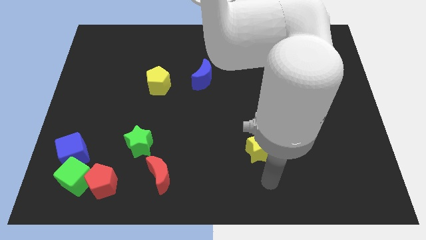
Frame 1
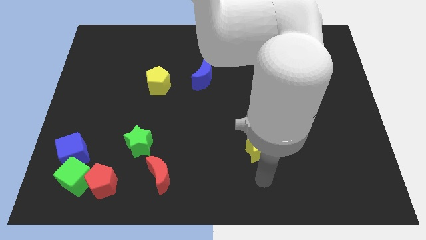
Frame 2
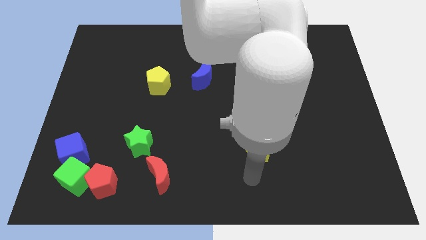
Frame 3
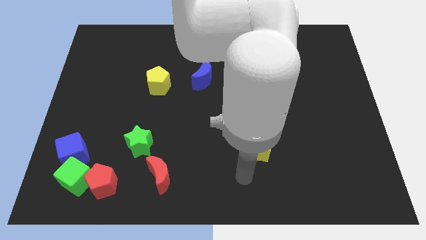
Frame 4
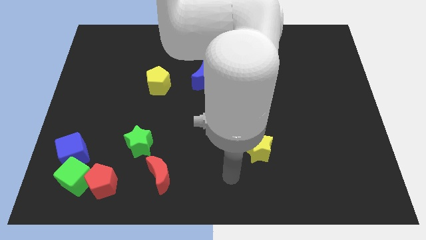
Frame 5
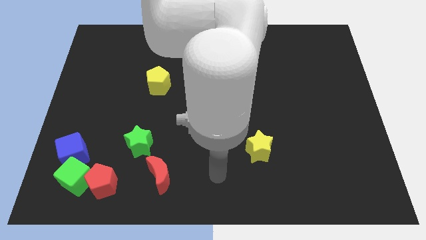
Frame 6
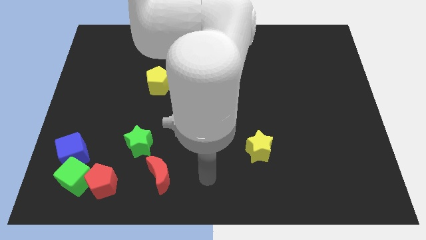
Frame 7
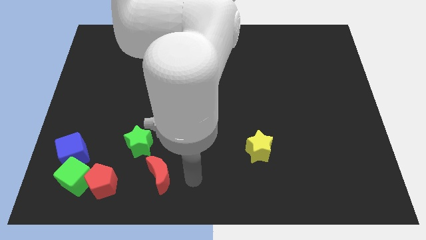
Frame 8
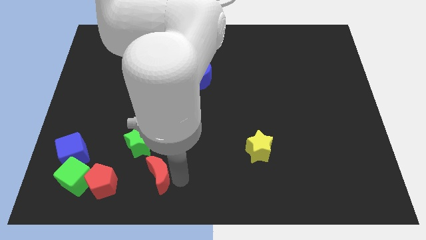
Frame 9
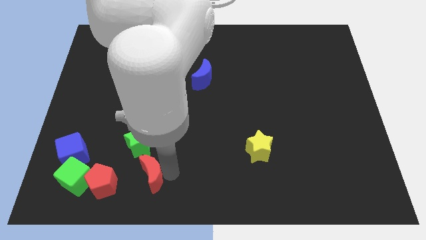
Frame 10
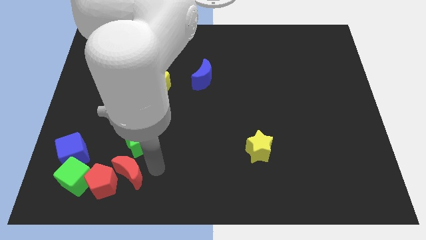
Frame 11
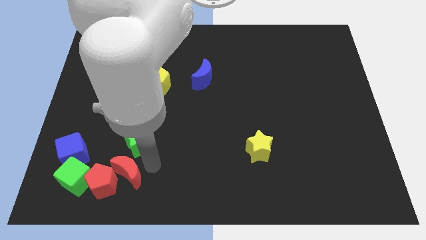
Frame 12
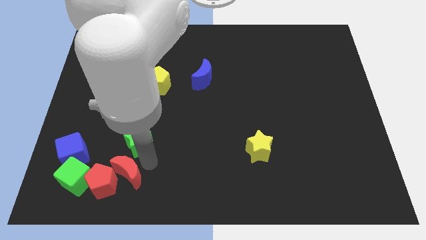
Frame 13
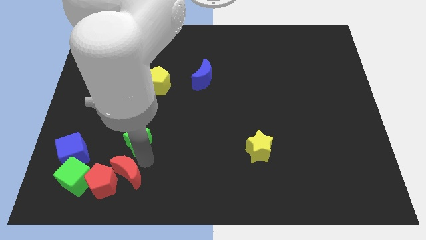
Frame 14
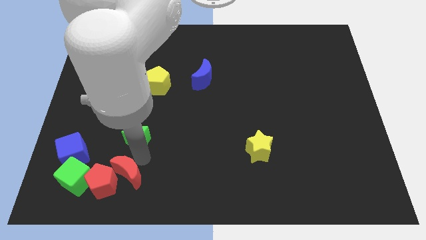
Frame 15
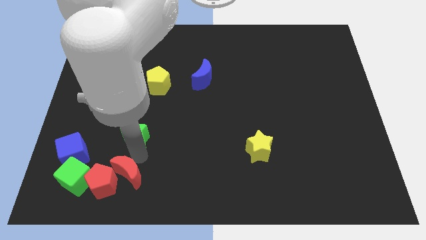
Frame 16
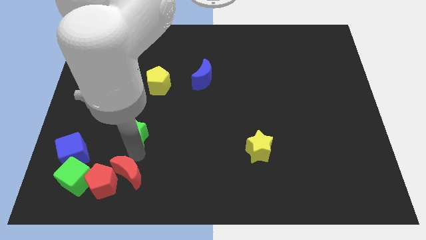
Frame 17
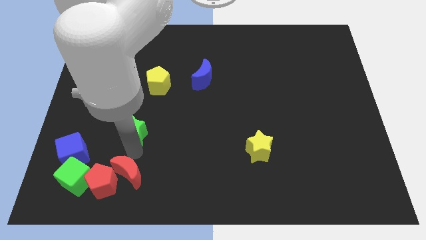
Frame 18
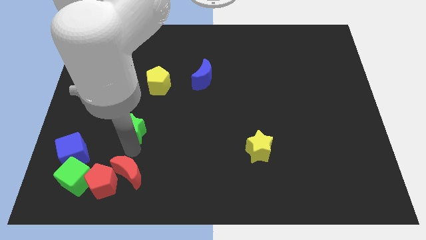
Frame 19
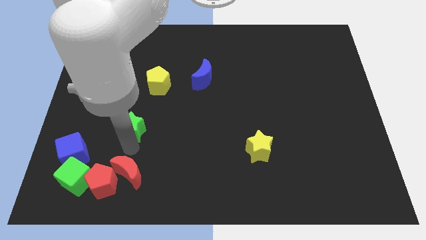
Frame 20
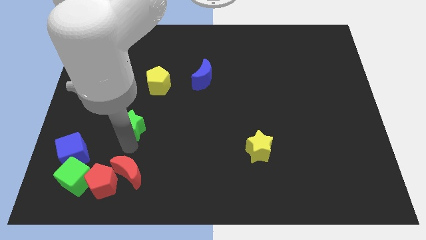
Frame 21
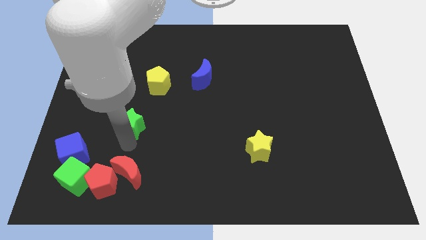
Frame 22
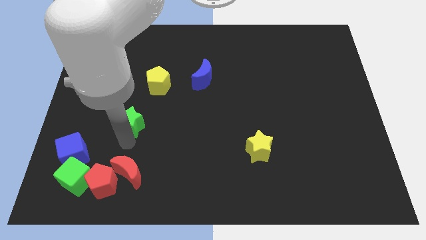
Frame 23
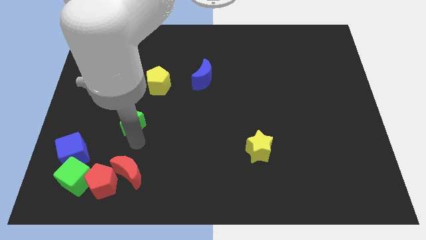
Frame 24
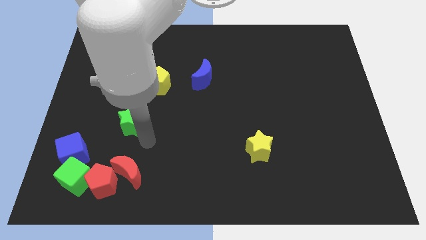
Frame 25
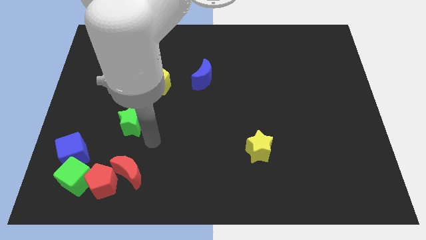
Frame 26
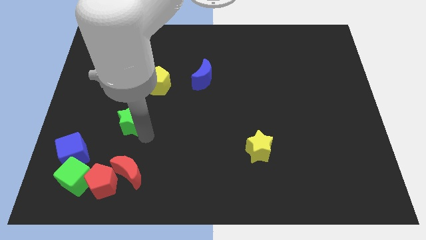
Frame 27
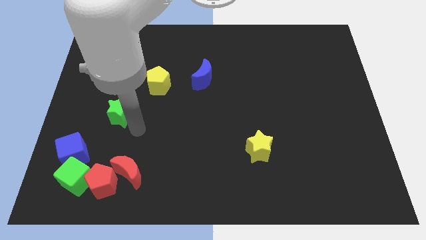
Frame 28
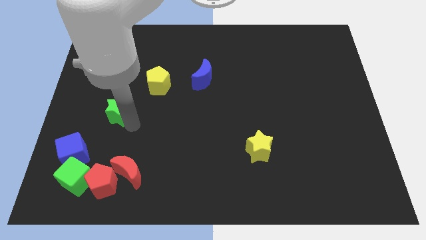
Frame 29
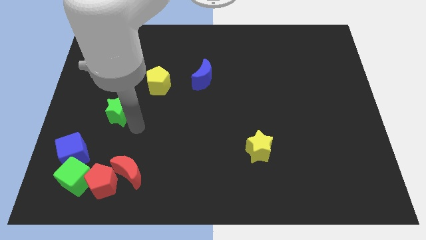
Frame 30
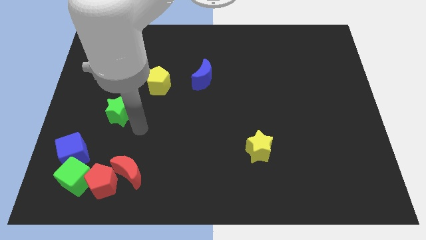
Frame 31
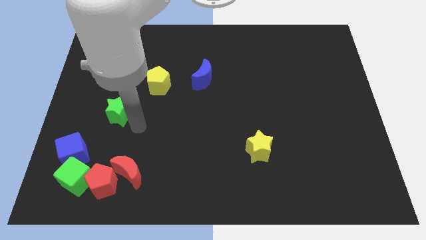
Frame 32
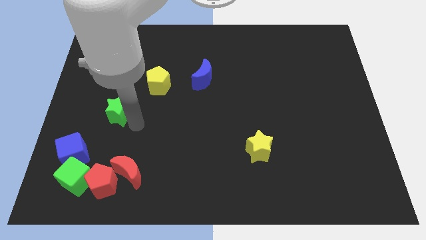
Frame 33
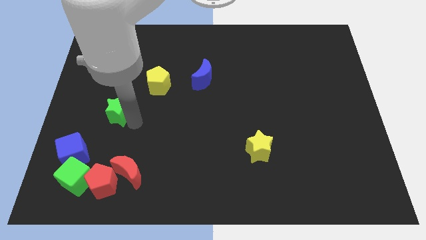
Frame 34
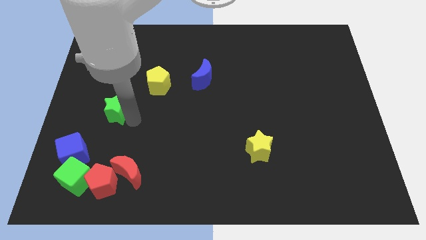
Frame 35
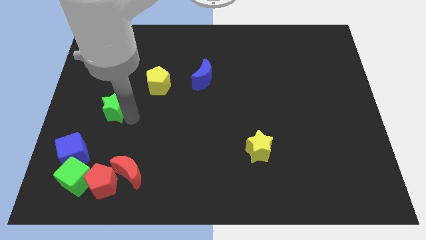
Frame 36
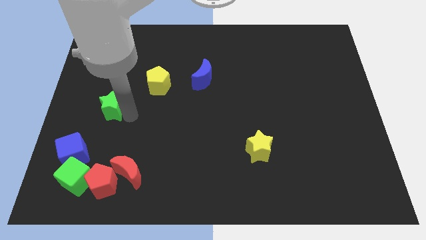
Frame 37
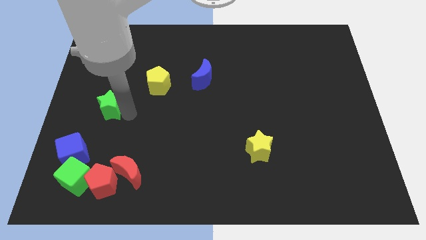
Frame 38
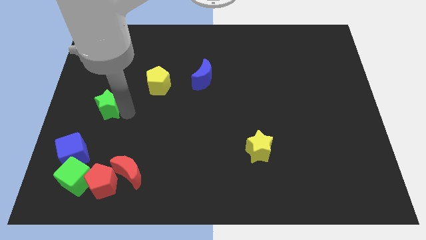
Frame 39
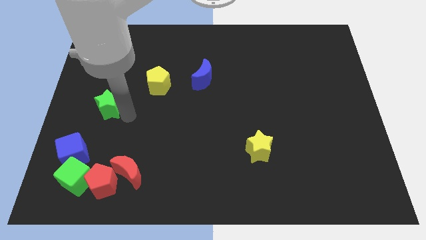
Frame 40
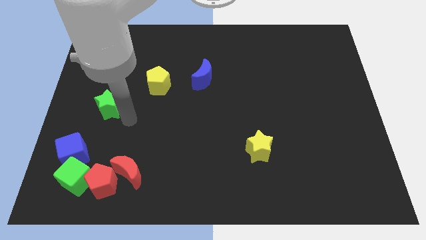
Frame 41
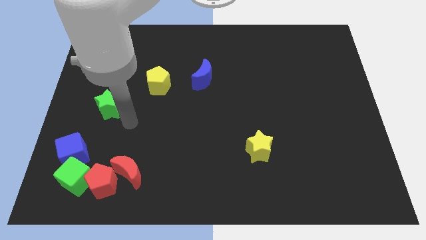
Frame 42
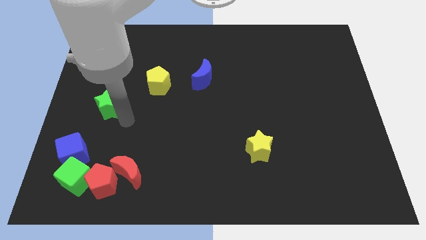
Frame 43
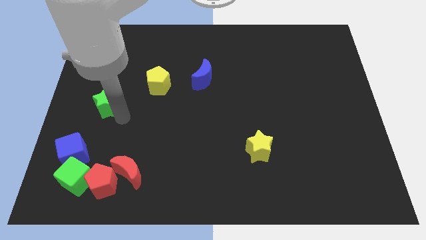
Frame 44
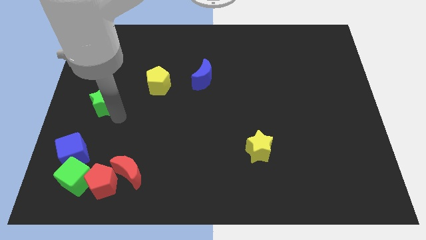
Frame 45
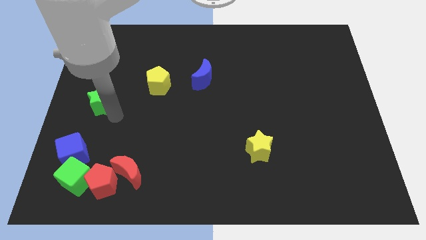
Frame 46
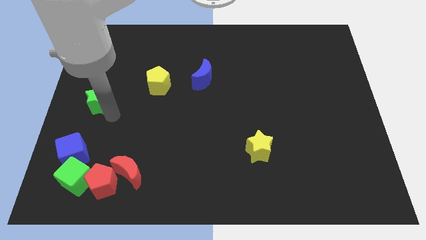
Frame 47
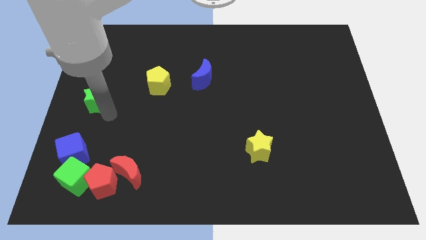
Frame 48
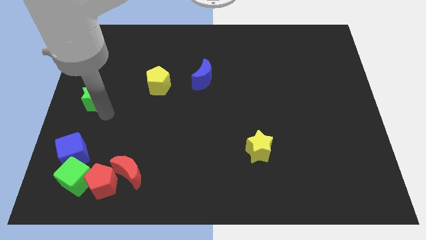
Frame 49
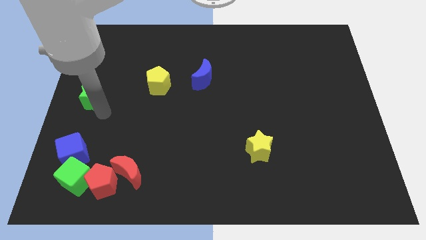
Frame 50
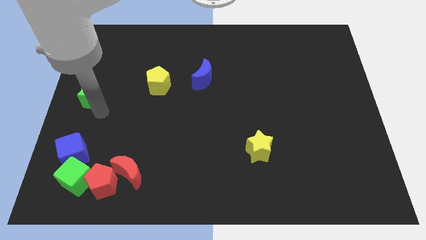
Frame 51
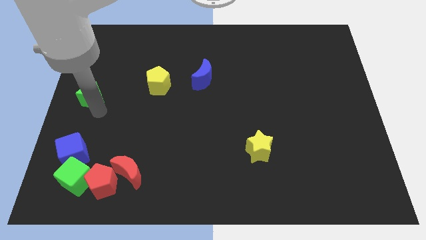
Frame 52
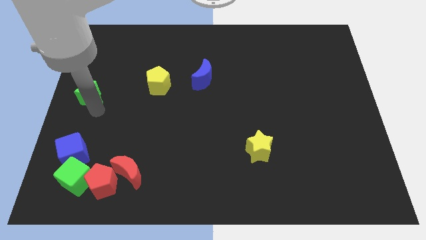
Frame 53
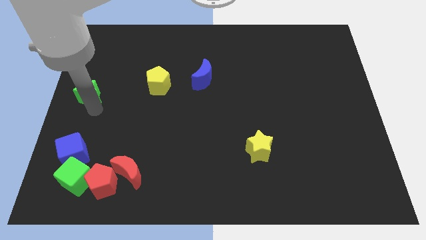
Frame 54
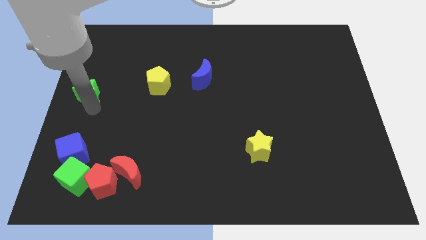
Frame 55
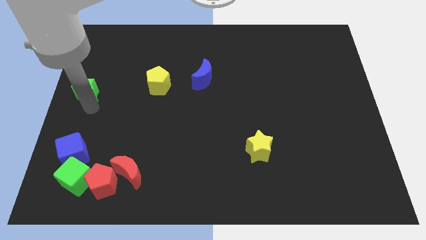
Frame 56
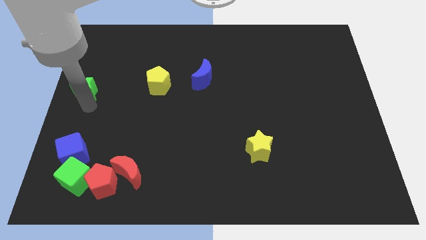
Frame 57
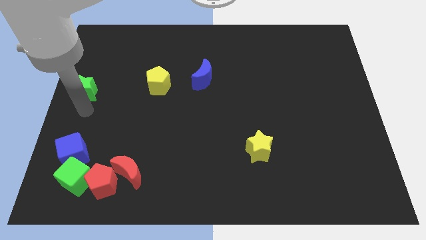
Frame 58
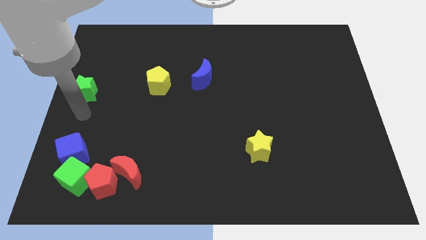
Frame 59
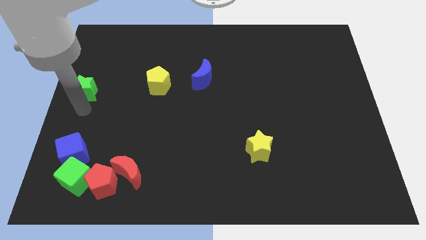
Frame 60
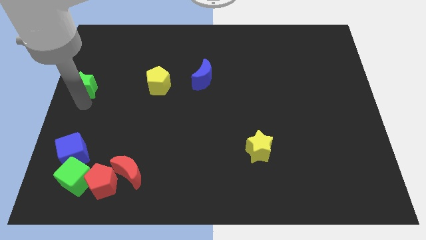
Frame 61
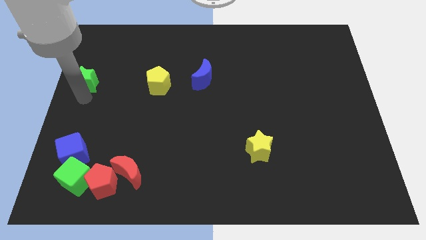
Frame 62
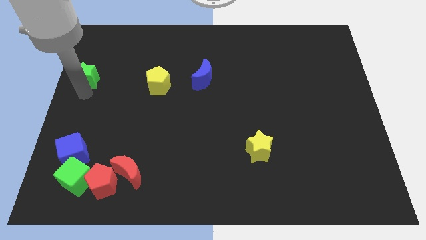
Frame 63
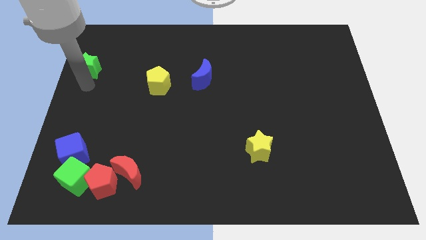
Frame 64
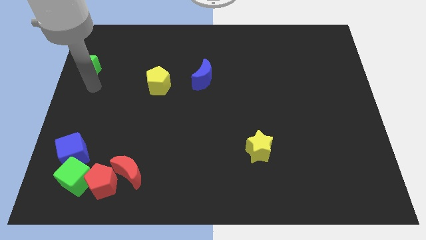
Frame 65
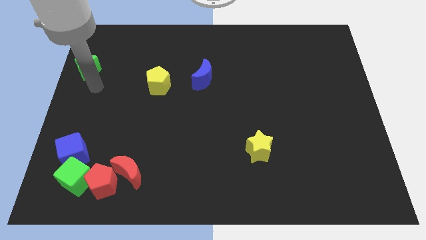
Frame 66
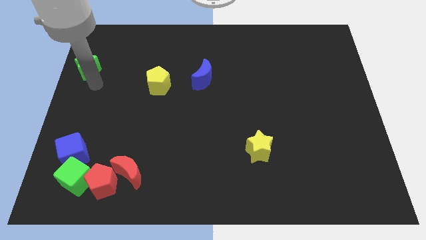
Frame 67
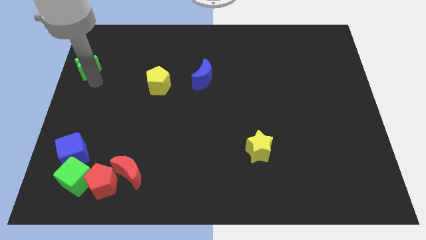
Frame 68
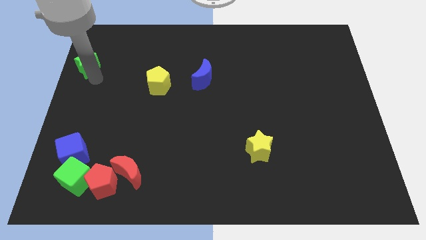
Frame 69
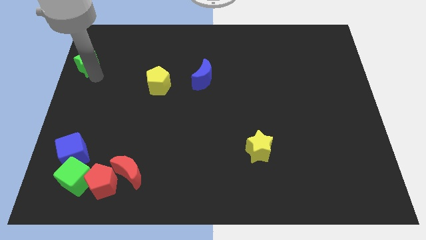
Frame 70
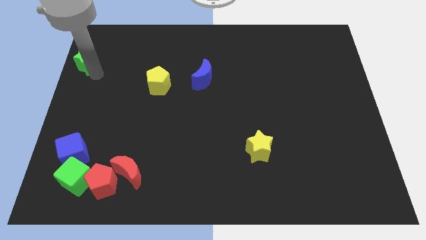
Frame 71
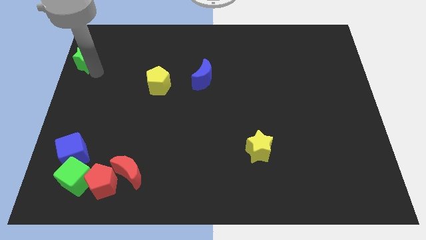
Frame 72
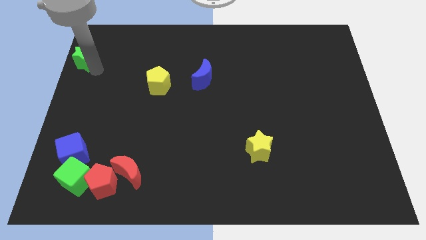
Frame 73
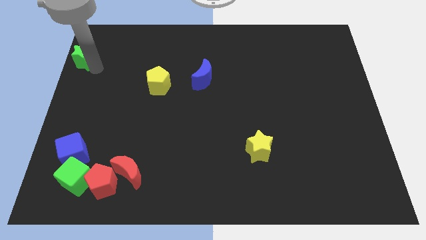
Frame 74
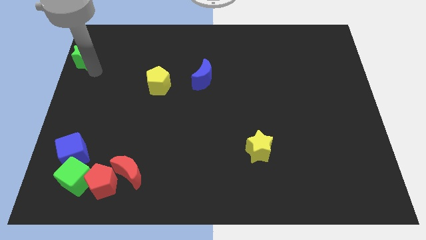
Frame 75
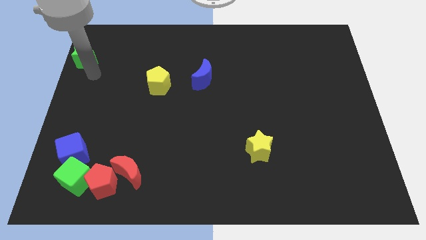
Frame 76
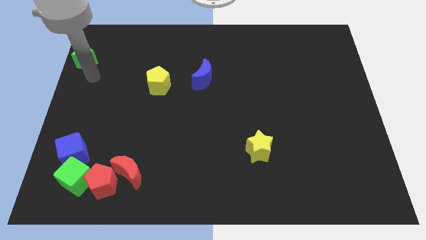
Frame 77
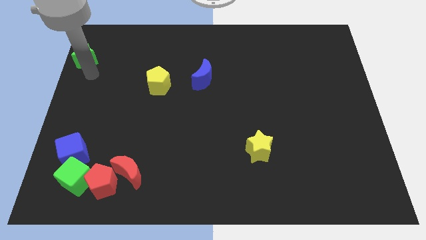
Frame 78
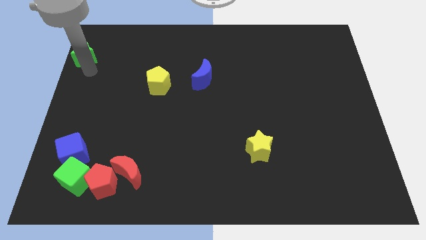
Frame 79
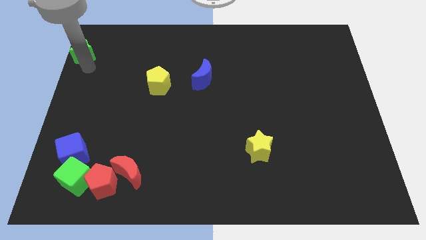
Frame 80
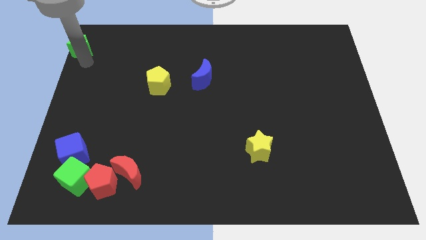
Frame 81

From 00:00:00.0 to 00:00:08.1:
move the green star to the upper left corner
